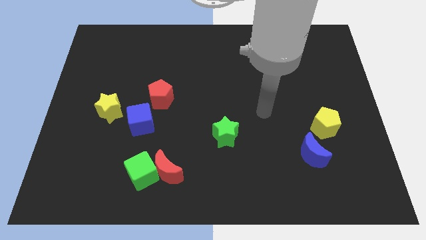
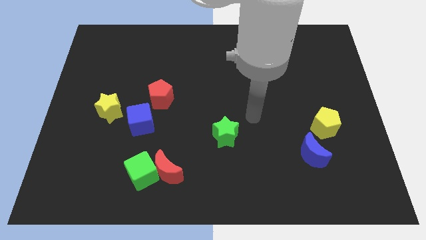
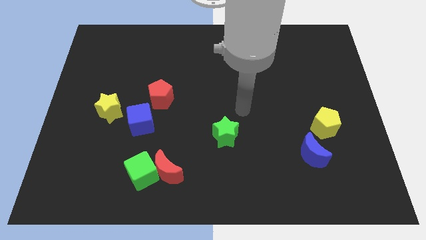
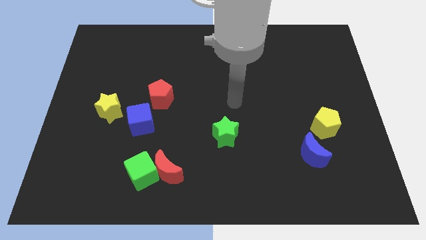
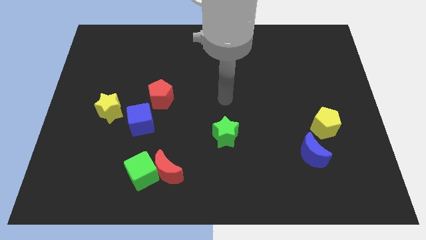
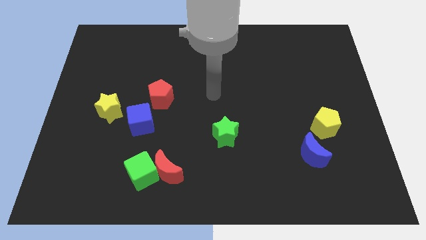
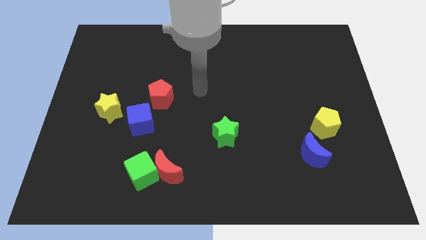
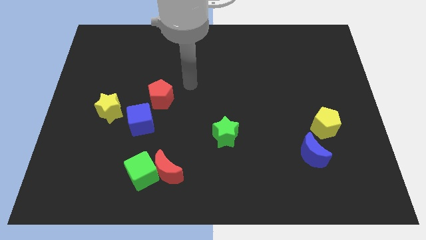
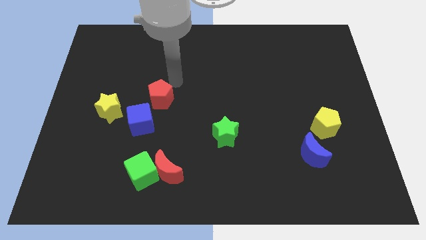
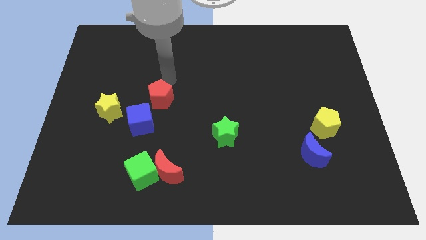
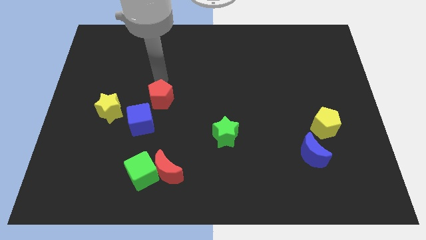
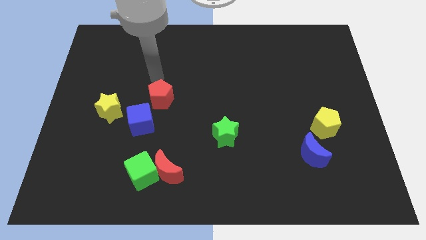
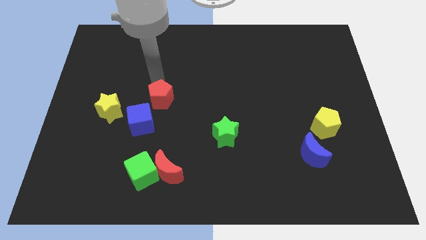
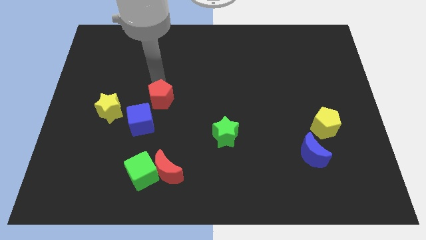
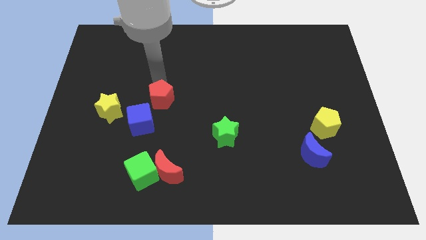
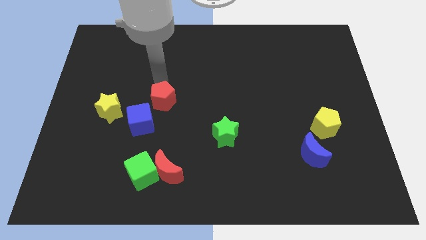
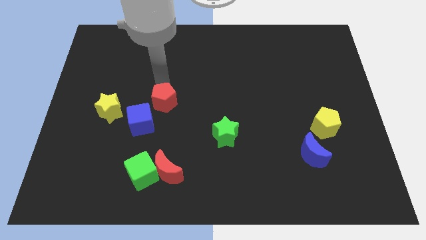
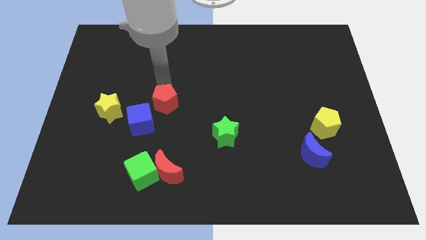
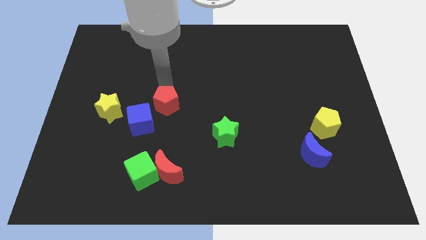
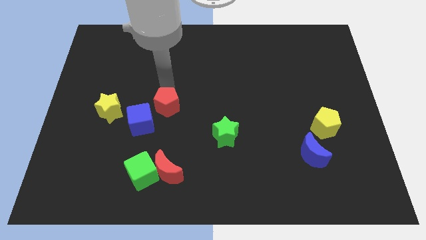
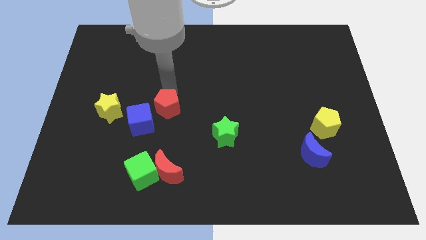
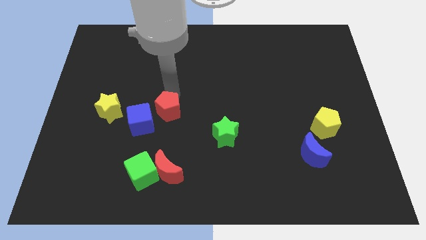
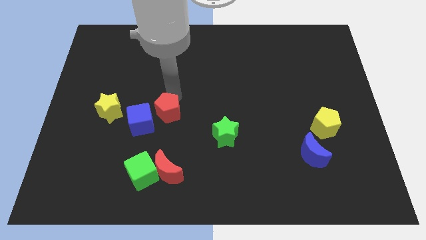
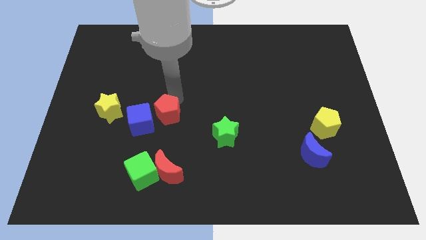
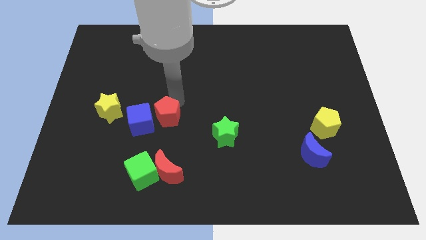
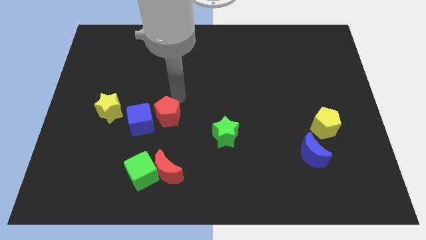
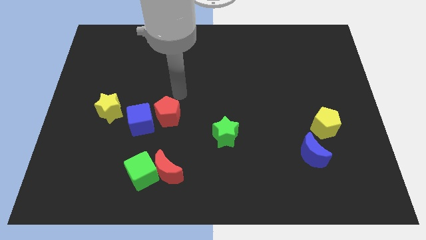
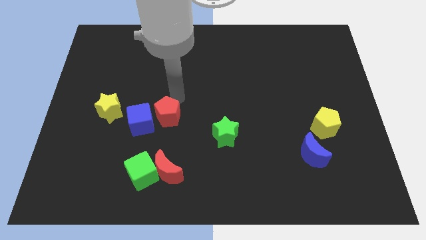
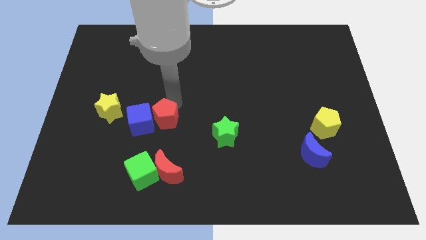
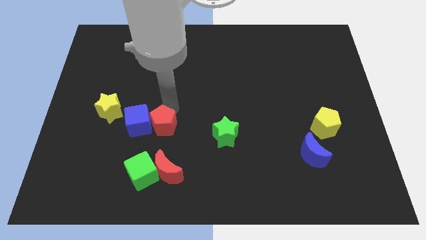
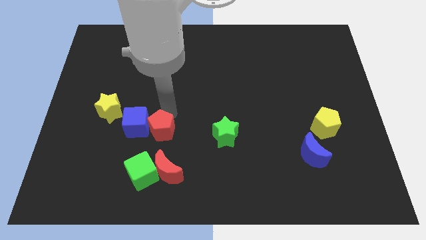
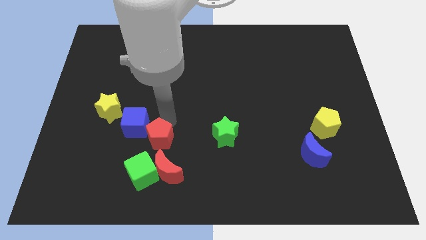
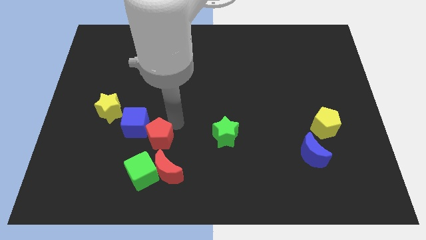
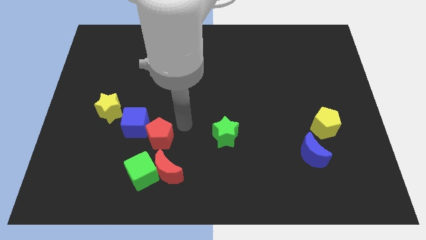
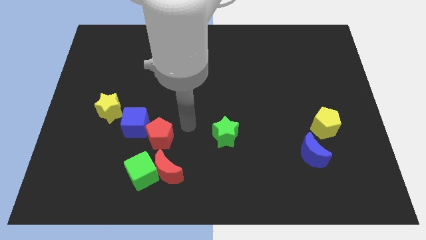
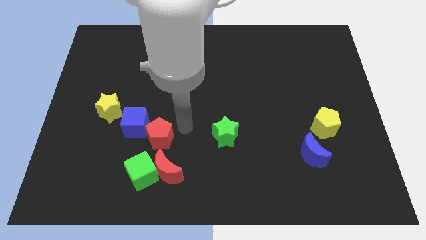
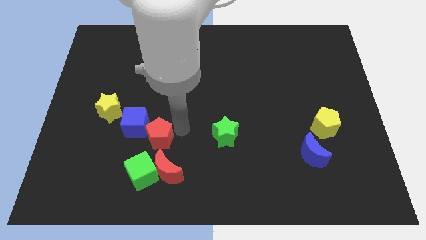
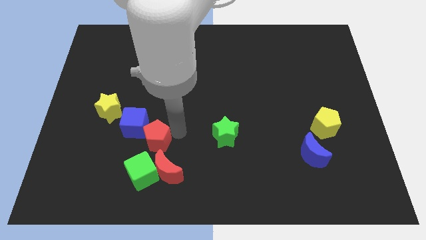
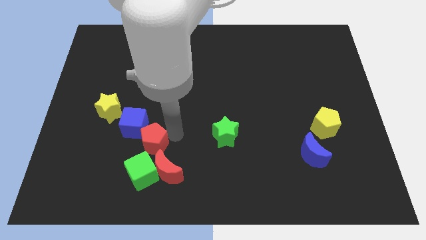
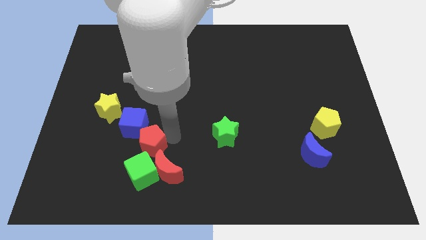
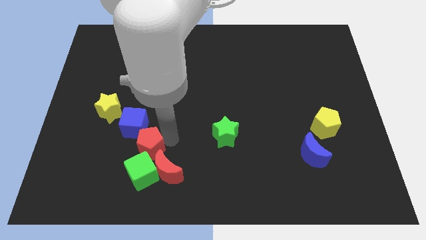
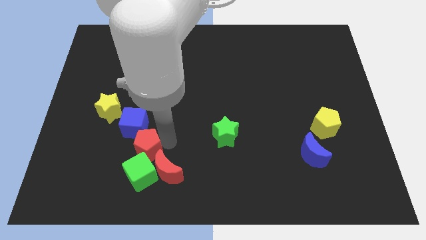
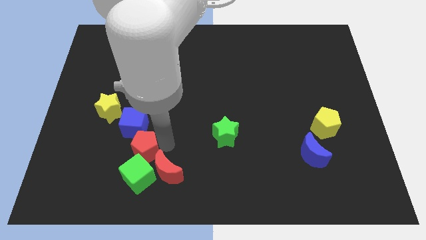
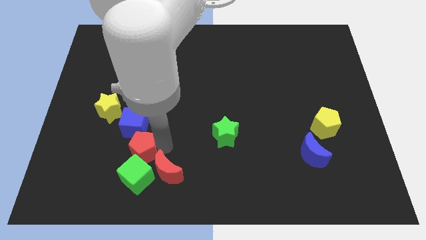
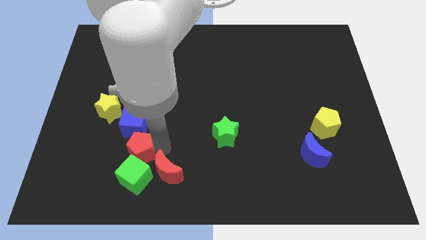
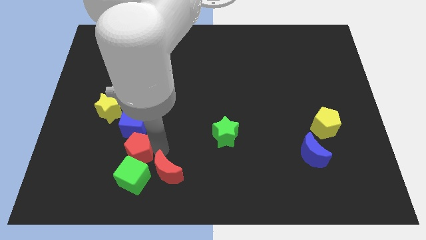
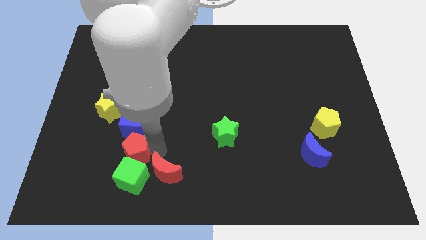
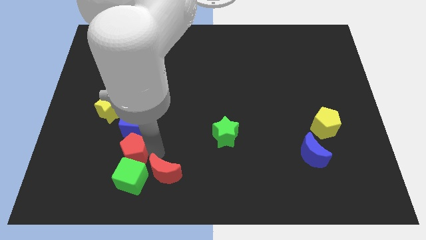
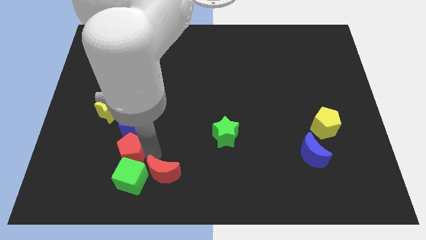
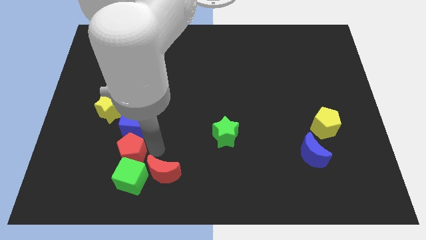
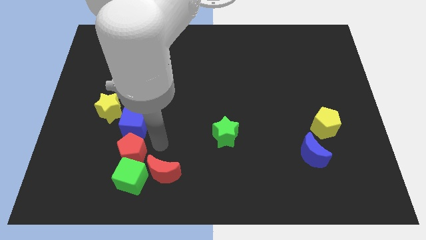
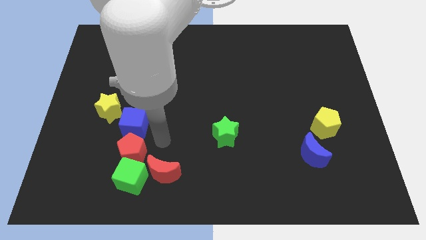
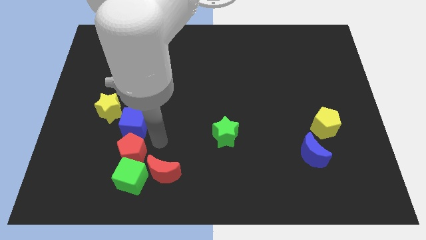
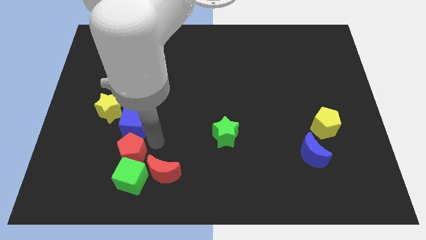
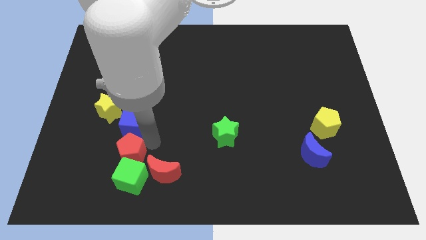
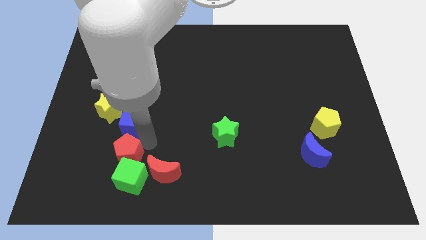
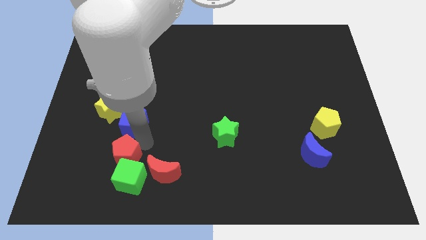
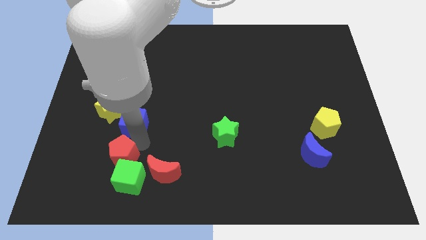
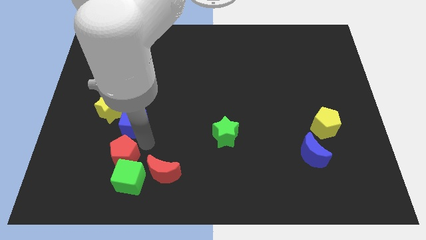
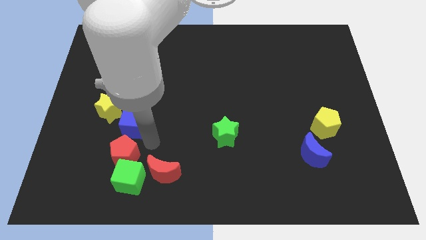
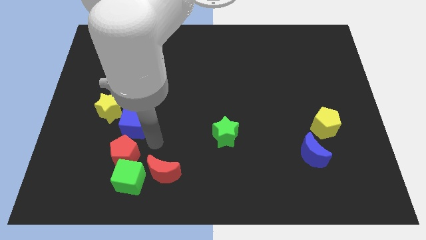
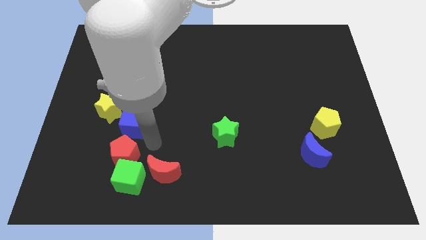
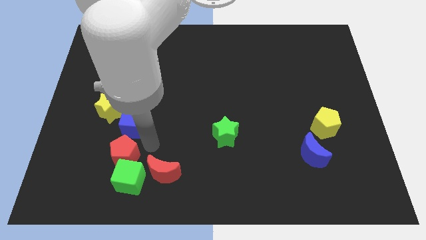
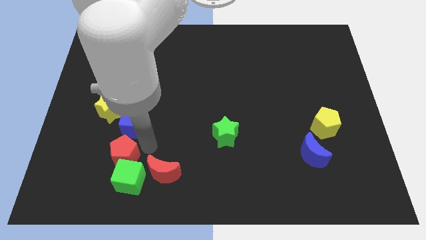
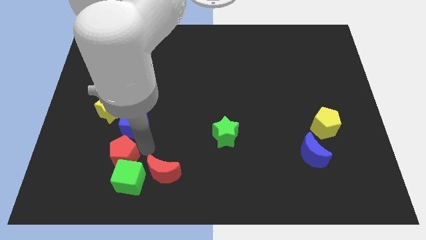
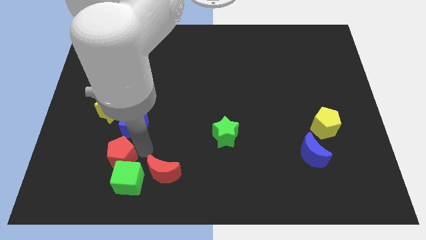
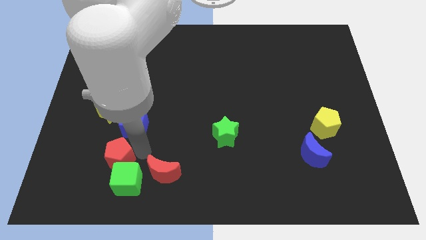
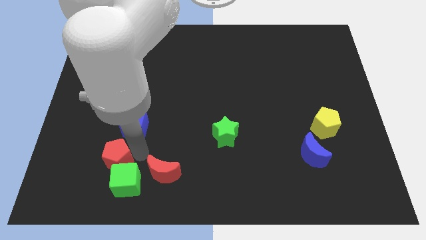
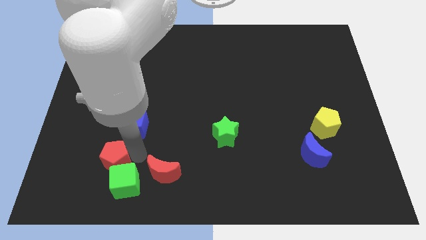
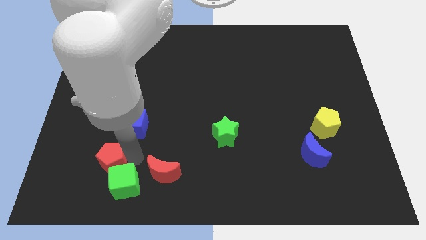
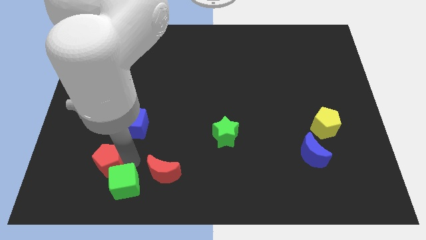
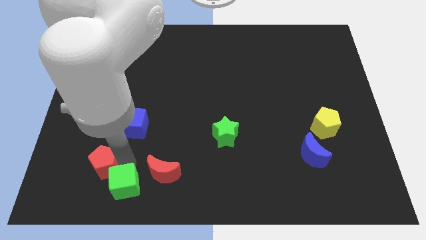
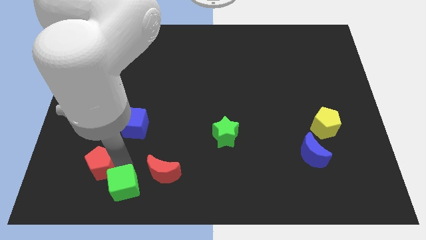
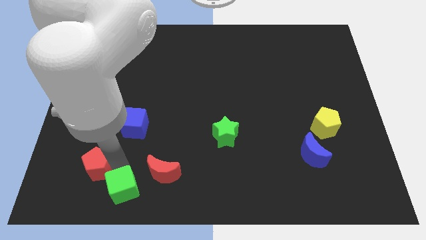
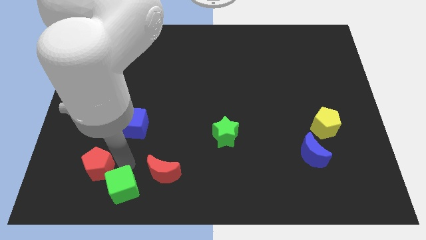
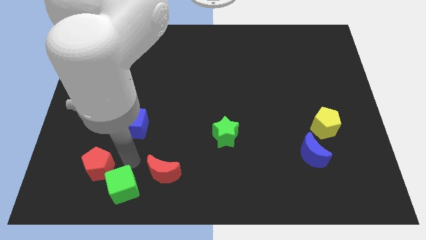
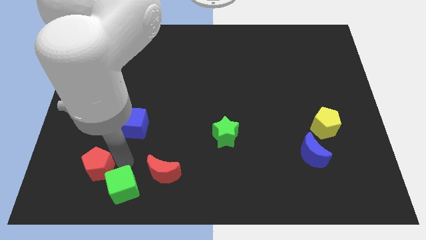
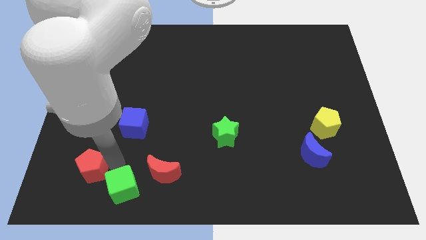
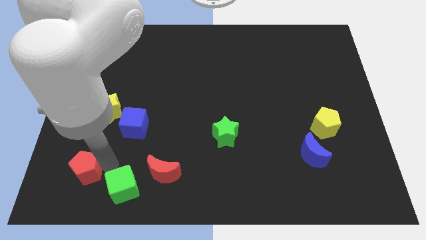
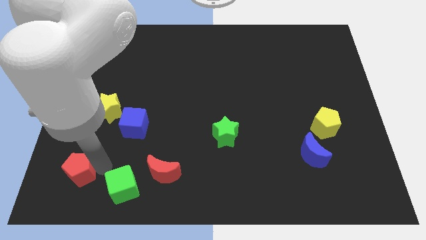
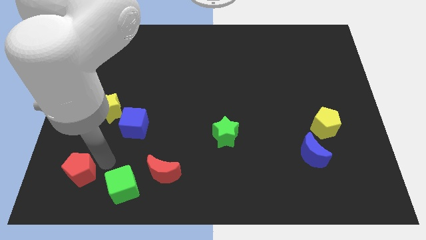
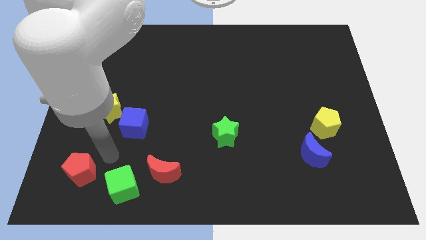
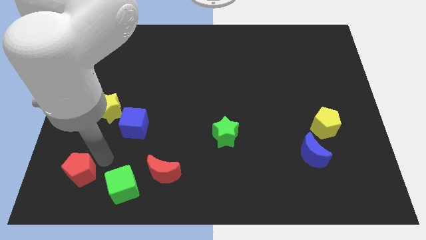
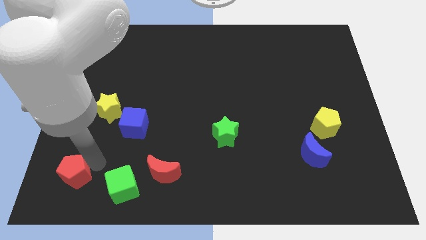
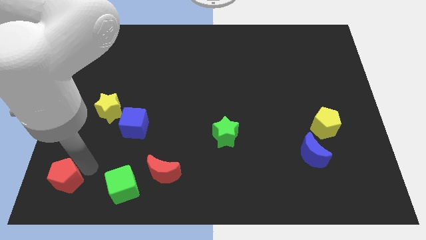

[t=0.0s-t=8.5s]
move the red pentagon to the lower left corner
